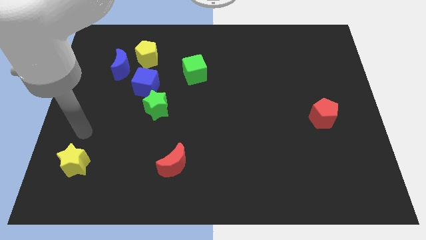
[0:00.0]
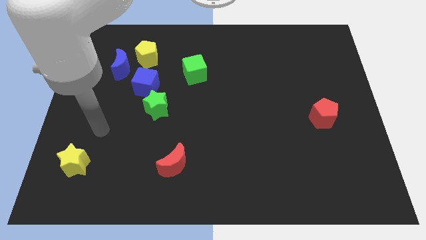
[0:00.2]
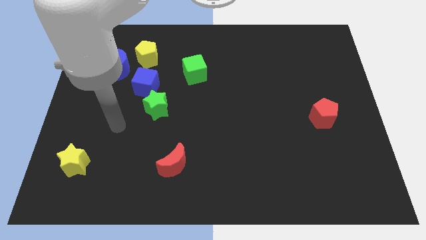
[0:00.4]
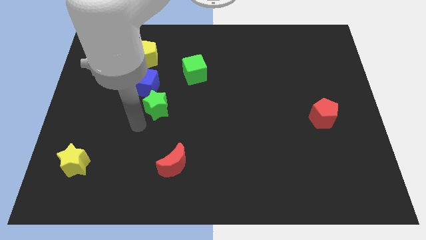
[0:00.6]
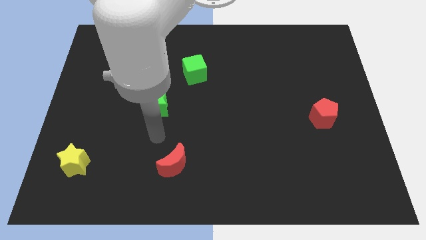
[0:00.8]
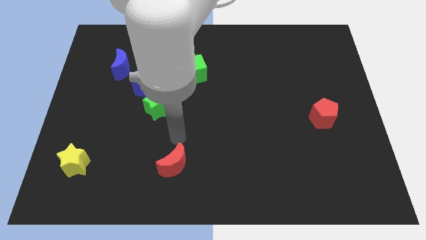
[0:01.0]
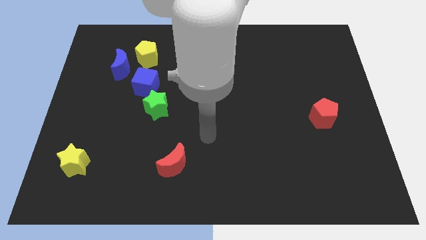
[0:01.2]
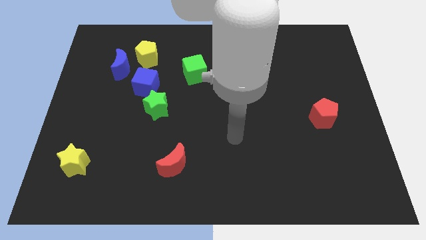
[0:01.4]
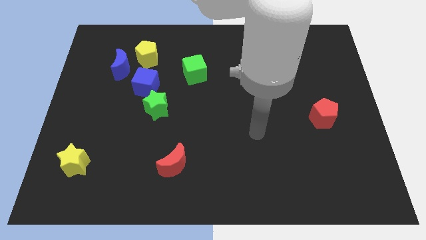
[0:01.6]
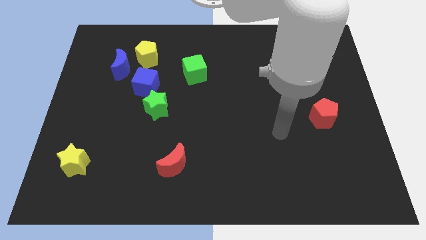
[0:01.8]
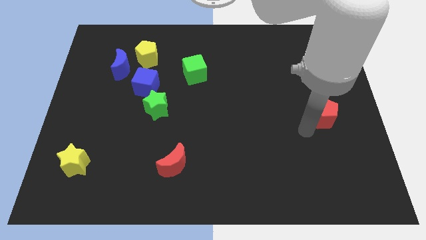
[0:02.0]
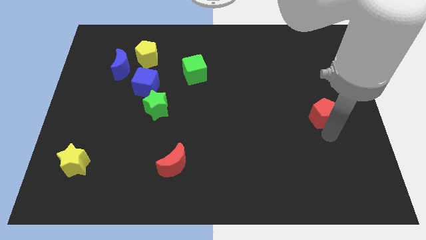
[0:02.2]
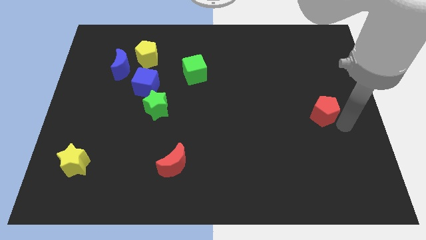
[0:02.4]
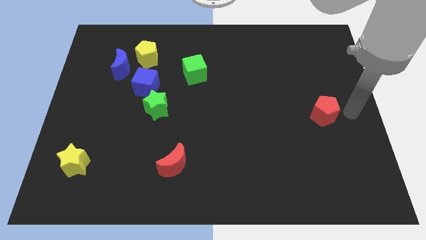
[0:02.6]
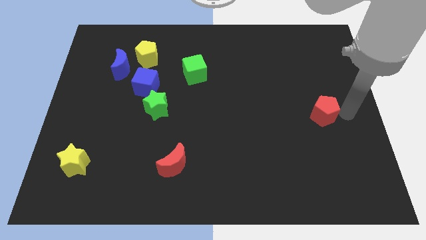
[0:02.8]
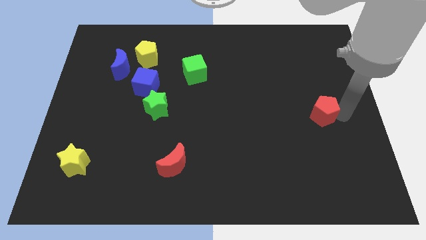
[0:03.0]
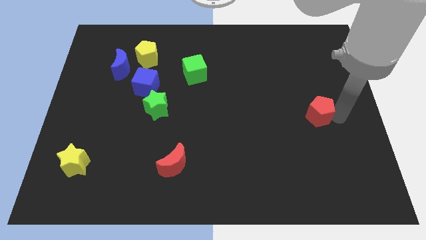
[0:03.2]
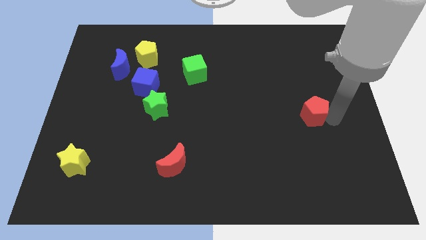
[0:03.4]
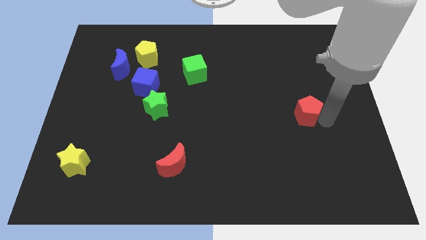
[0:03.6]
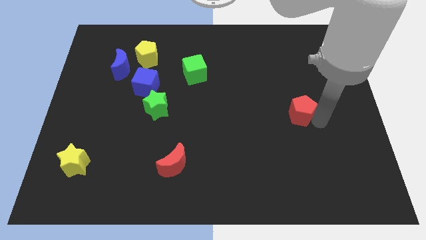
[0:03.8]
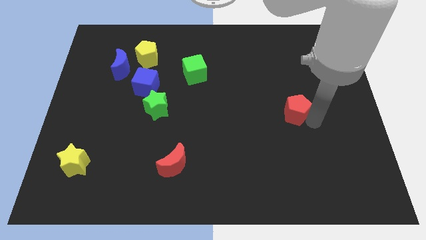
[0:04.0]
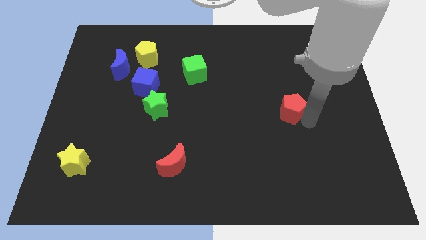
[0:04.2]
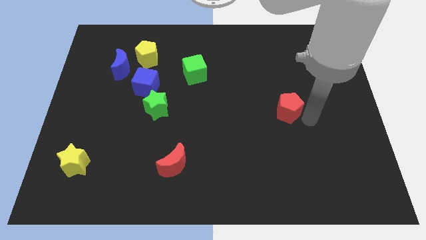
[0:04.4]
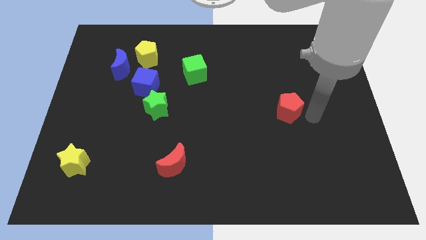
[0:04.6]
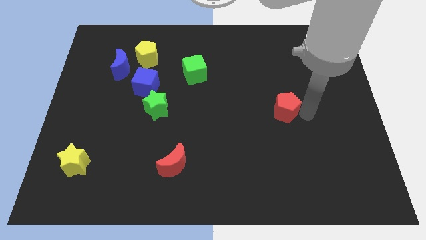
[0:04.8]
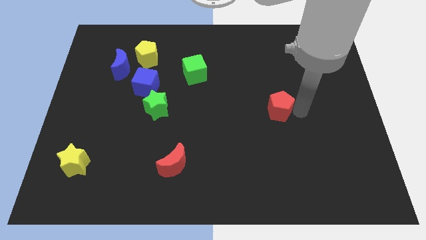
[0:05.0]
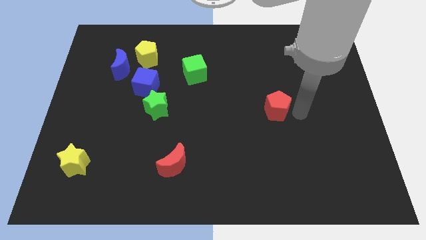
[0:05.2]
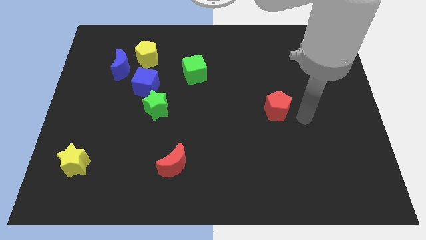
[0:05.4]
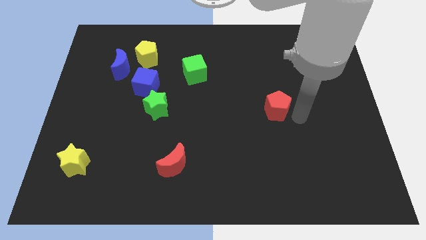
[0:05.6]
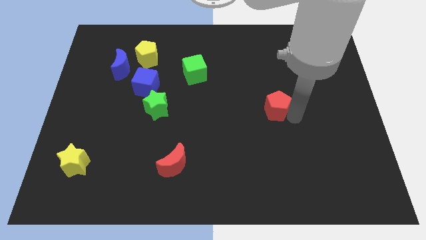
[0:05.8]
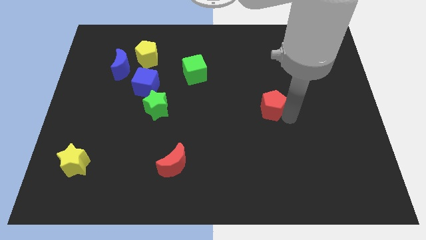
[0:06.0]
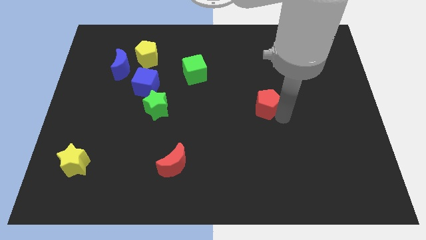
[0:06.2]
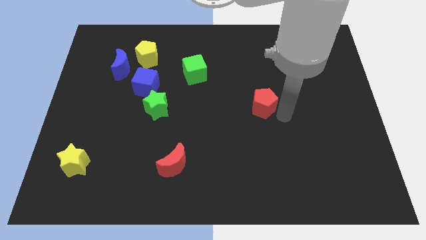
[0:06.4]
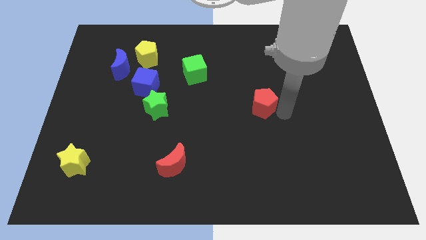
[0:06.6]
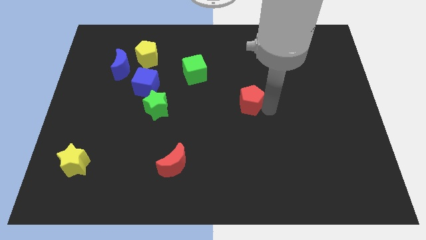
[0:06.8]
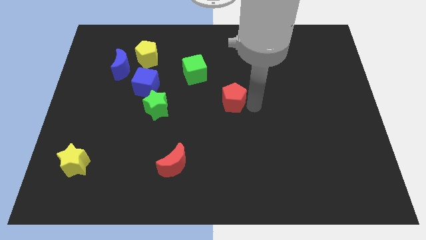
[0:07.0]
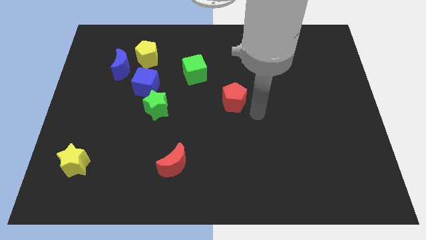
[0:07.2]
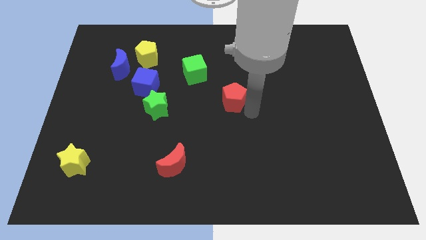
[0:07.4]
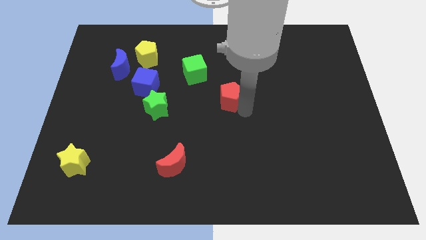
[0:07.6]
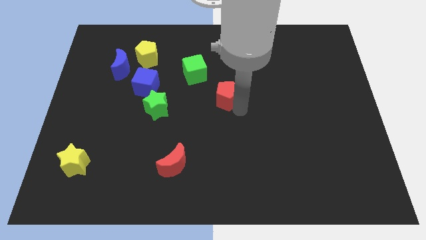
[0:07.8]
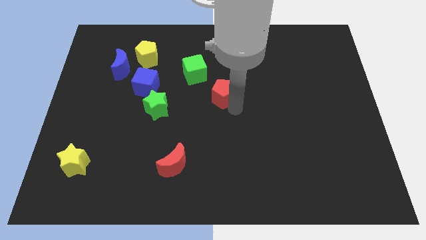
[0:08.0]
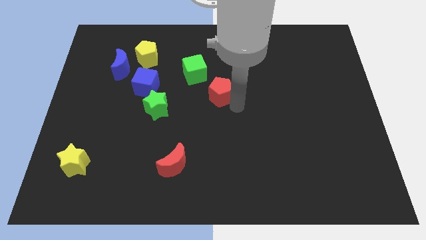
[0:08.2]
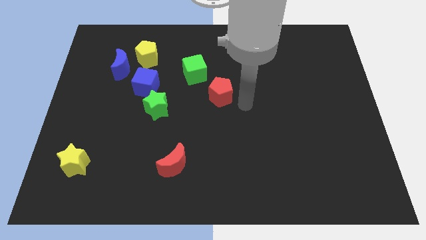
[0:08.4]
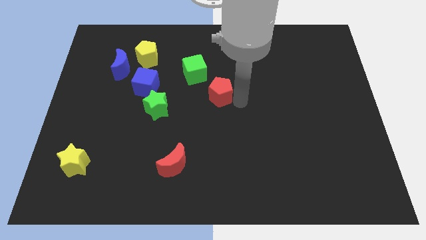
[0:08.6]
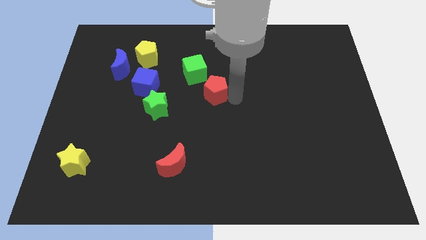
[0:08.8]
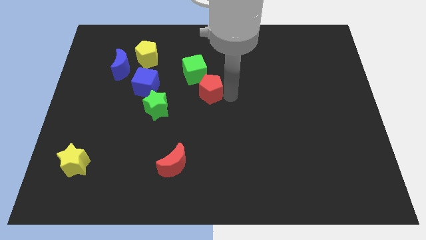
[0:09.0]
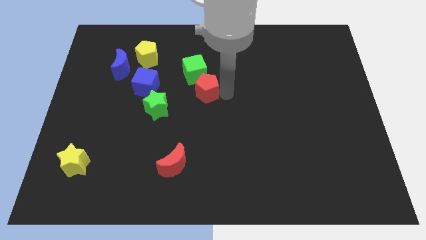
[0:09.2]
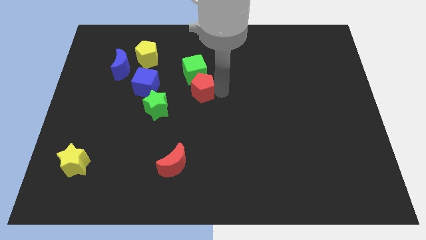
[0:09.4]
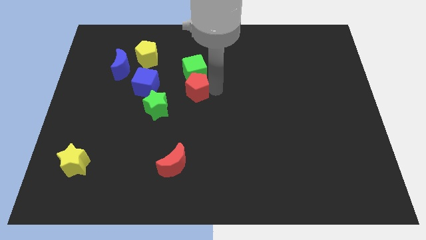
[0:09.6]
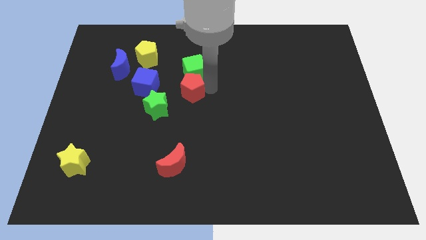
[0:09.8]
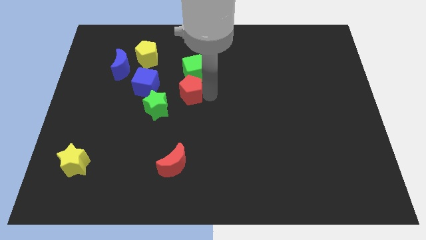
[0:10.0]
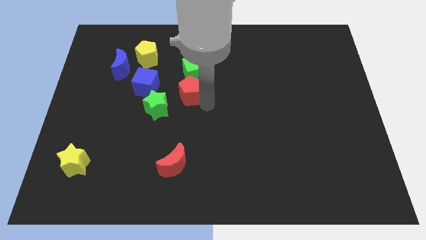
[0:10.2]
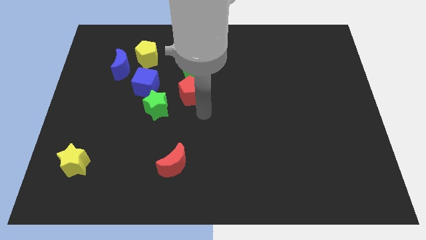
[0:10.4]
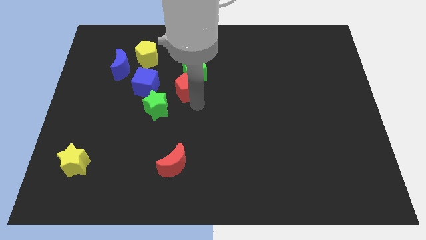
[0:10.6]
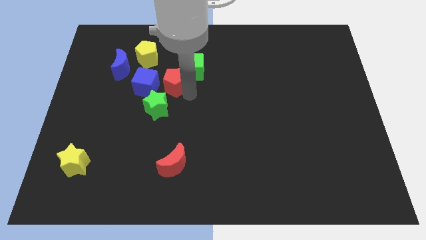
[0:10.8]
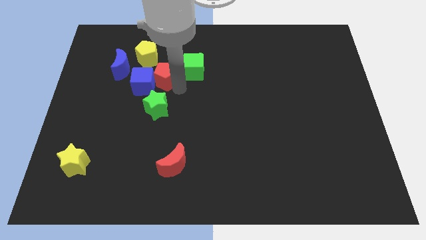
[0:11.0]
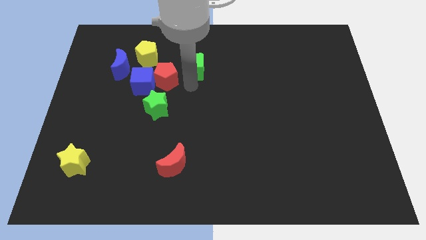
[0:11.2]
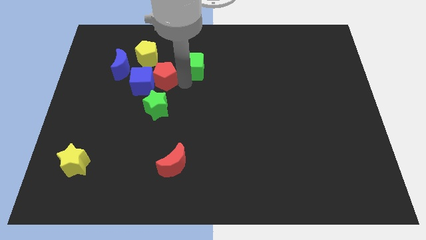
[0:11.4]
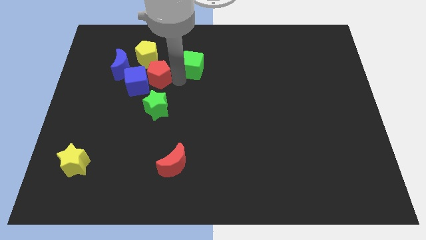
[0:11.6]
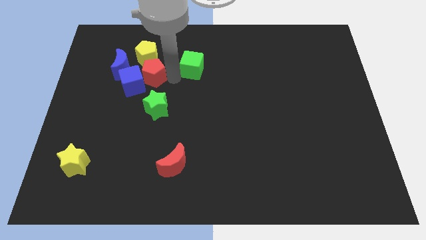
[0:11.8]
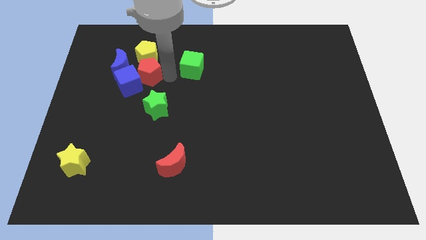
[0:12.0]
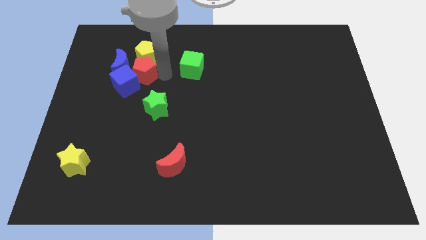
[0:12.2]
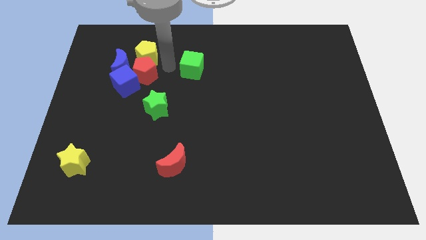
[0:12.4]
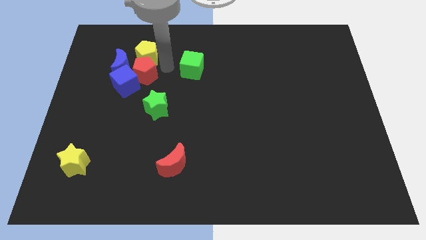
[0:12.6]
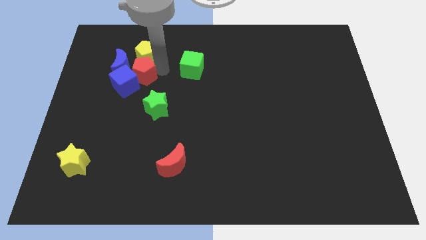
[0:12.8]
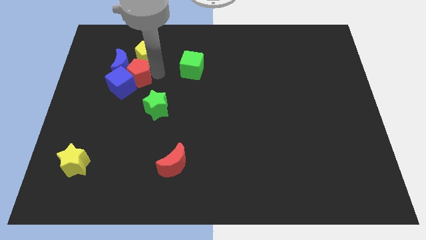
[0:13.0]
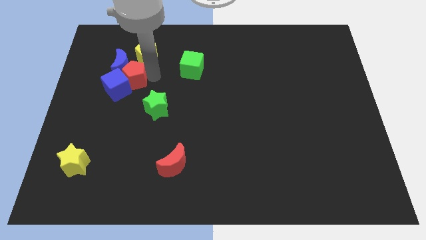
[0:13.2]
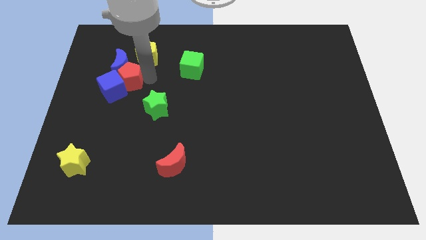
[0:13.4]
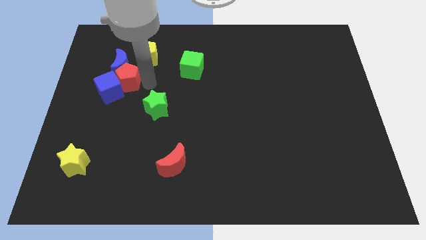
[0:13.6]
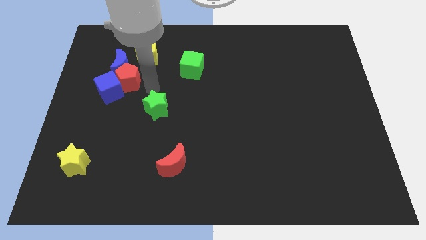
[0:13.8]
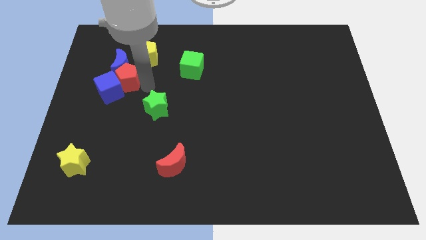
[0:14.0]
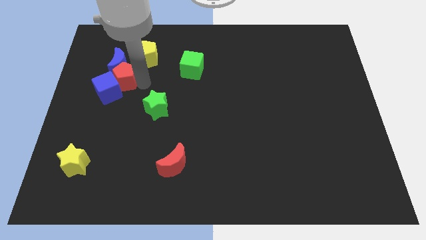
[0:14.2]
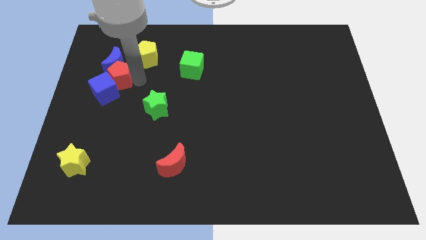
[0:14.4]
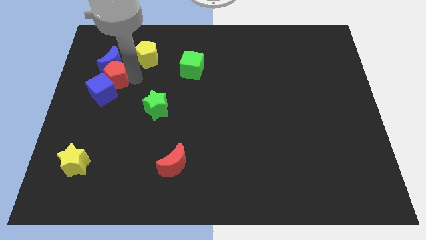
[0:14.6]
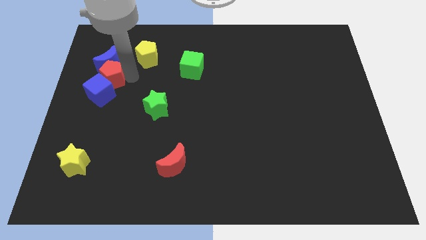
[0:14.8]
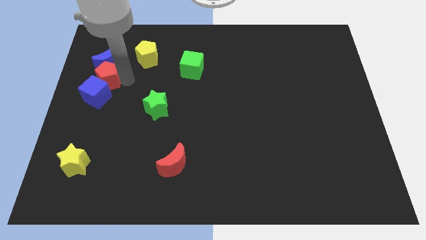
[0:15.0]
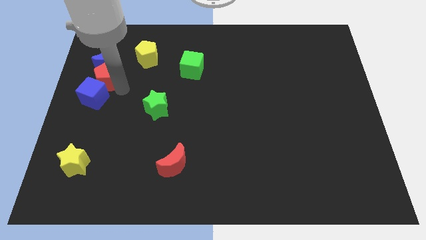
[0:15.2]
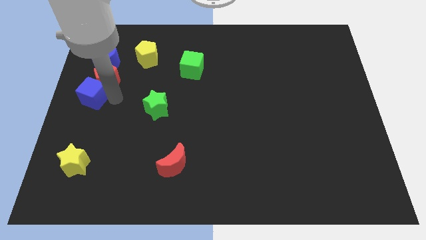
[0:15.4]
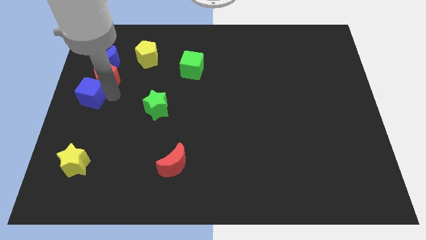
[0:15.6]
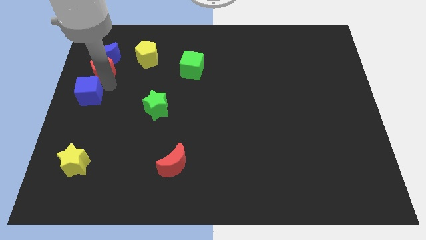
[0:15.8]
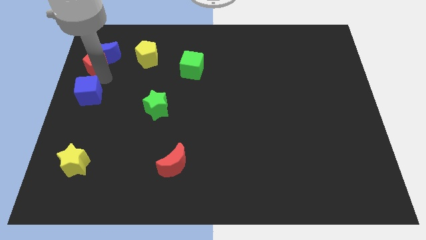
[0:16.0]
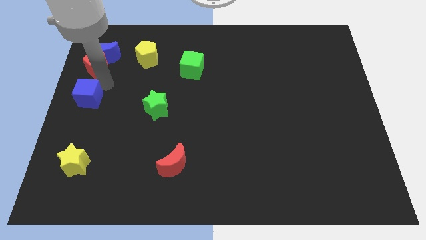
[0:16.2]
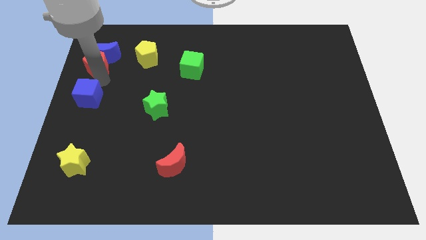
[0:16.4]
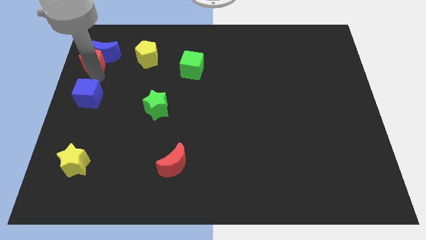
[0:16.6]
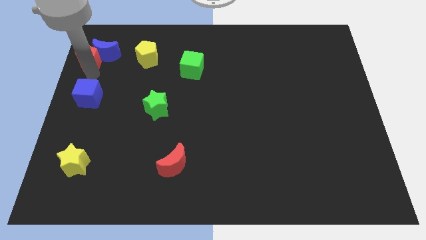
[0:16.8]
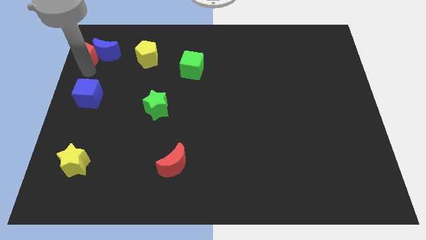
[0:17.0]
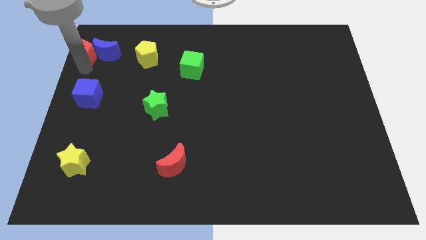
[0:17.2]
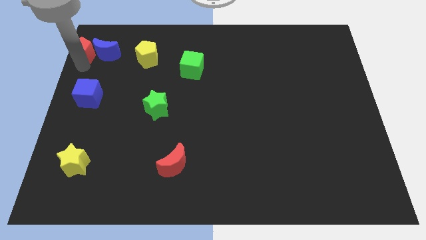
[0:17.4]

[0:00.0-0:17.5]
move the red pentagon to the upper left corner
